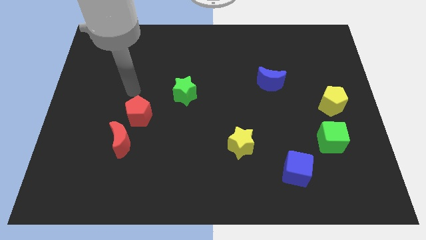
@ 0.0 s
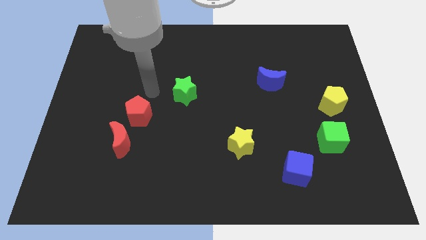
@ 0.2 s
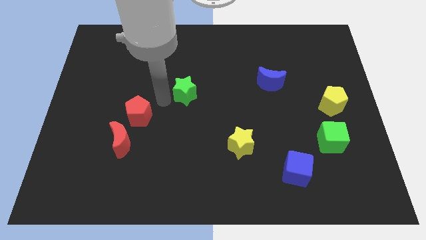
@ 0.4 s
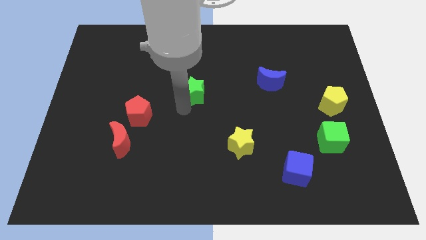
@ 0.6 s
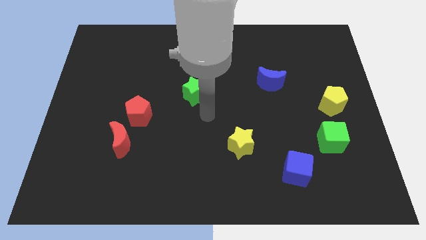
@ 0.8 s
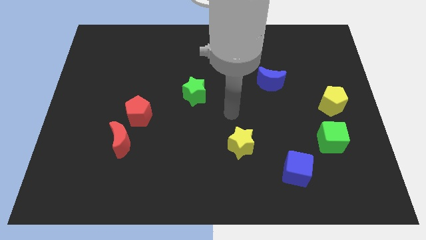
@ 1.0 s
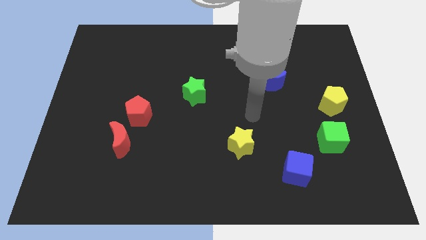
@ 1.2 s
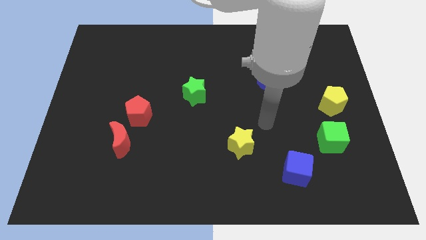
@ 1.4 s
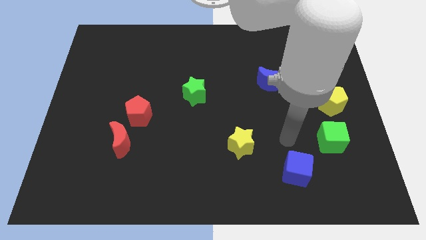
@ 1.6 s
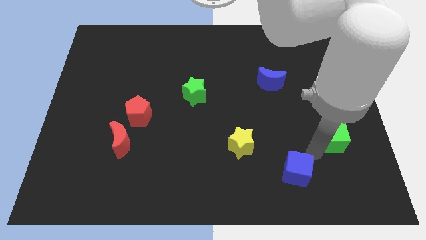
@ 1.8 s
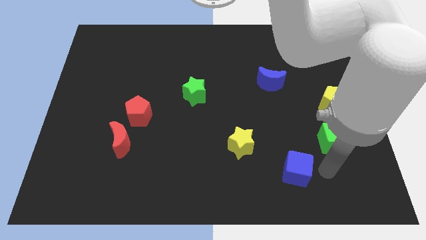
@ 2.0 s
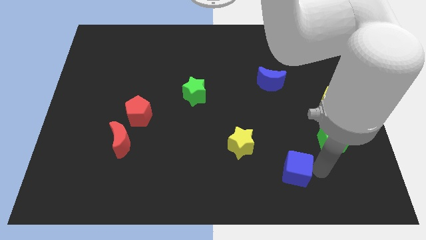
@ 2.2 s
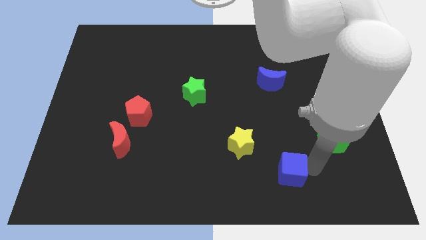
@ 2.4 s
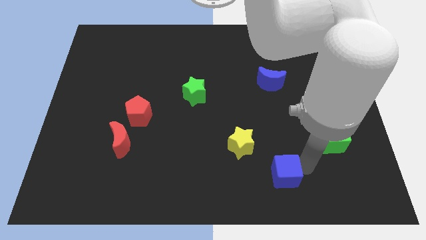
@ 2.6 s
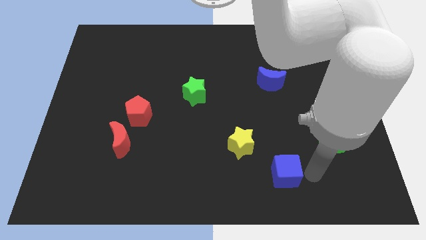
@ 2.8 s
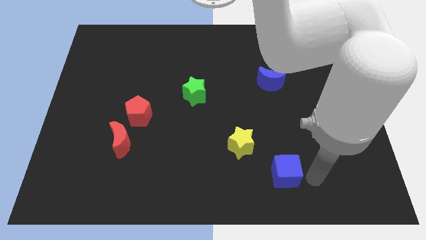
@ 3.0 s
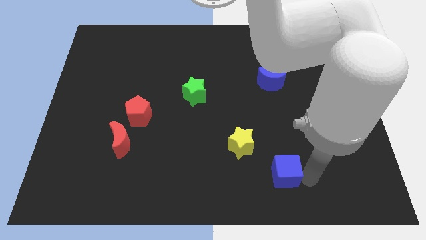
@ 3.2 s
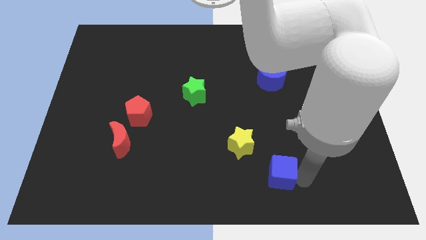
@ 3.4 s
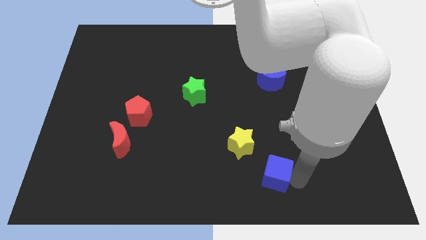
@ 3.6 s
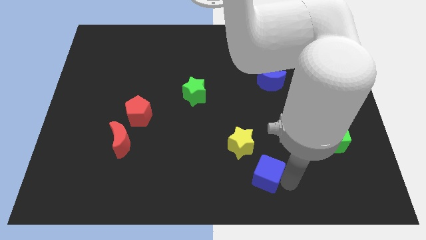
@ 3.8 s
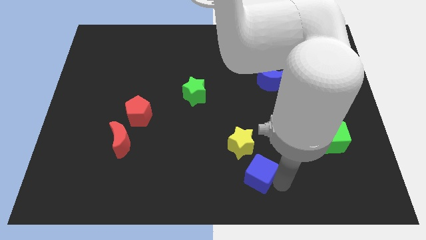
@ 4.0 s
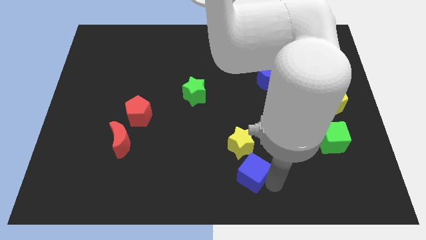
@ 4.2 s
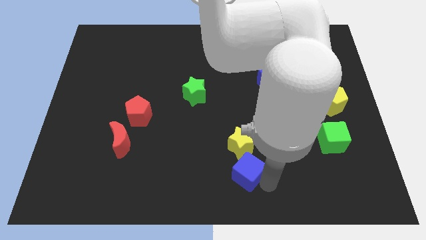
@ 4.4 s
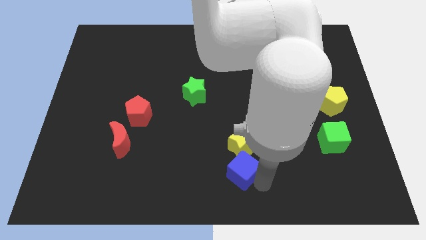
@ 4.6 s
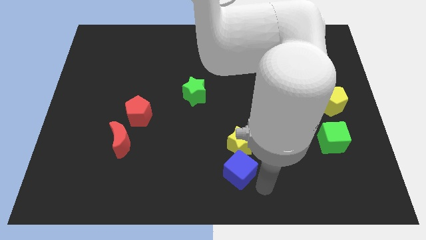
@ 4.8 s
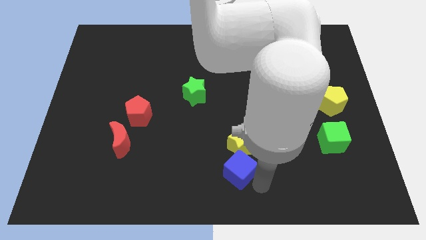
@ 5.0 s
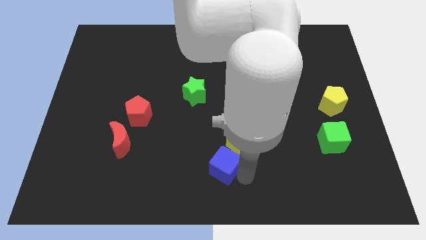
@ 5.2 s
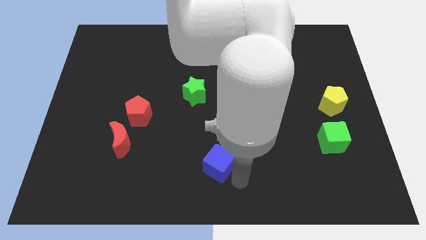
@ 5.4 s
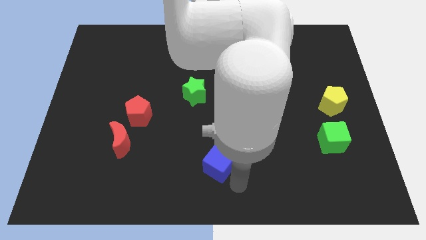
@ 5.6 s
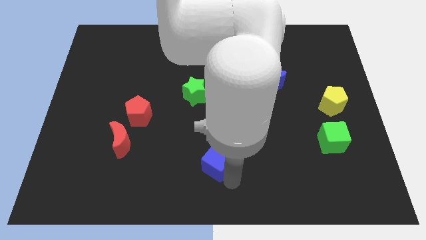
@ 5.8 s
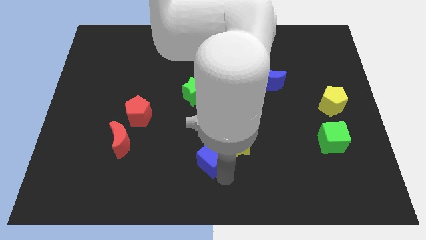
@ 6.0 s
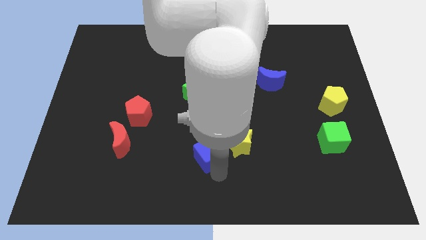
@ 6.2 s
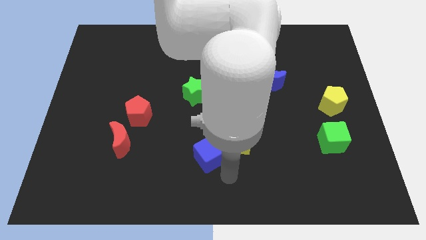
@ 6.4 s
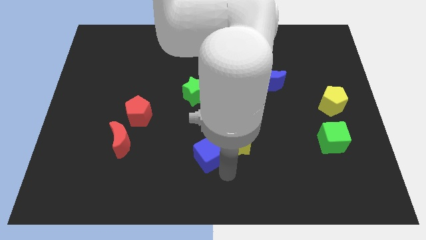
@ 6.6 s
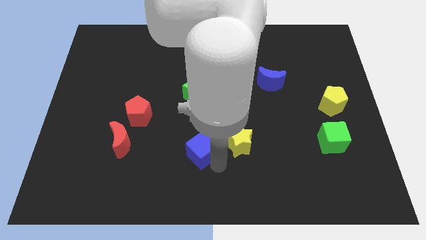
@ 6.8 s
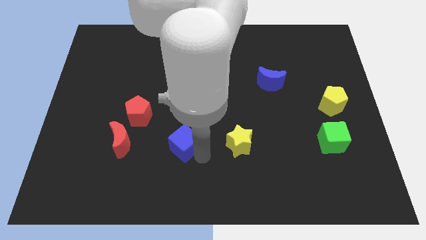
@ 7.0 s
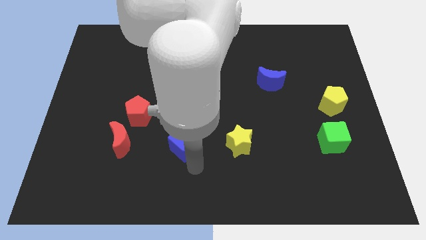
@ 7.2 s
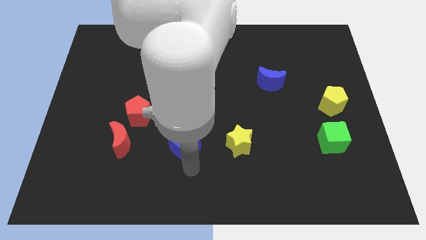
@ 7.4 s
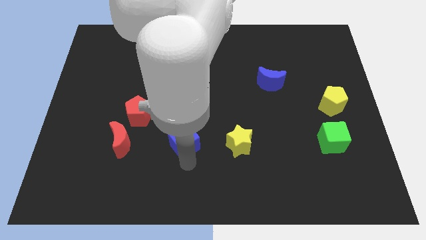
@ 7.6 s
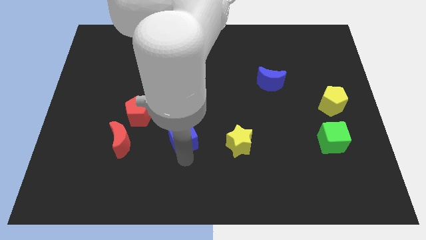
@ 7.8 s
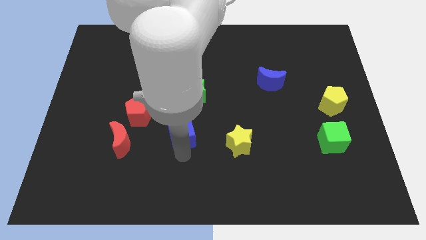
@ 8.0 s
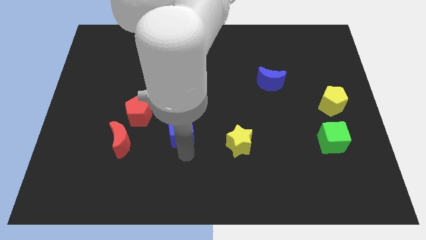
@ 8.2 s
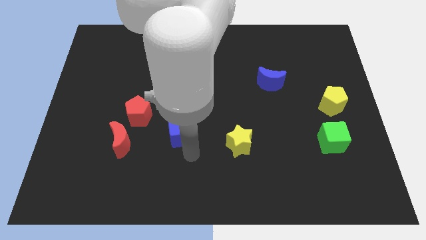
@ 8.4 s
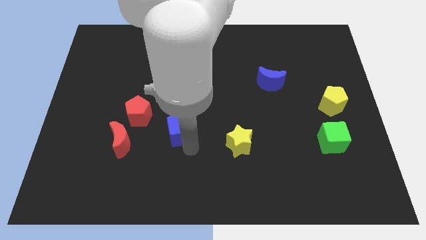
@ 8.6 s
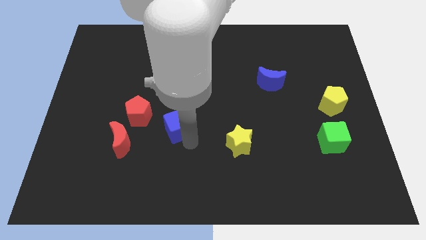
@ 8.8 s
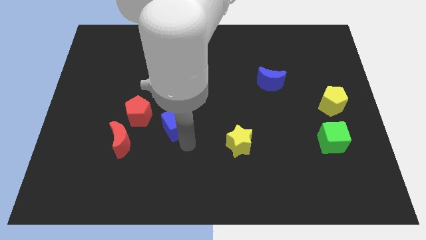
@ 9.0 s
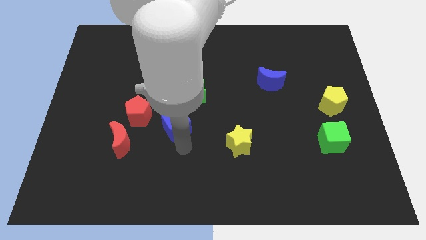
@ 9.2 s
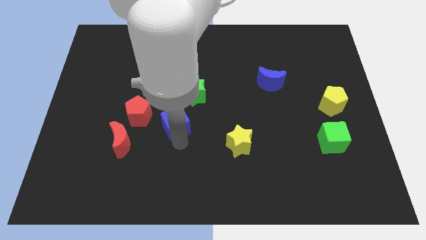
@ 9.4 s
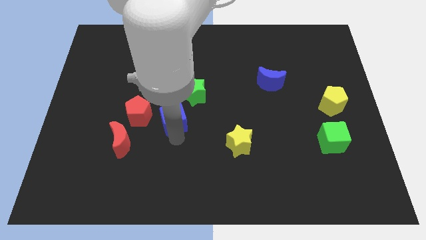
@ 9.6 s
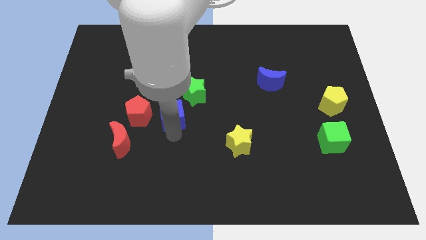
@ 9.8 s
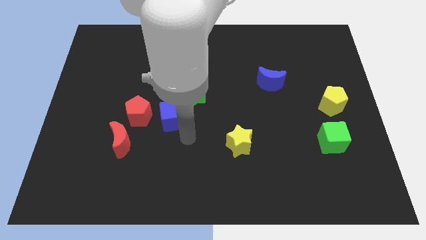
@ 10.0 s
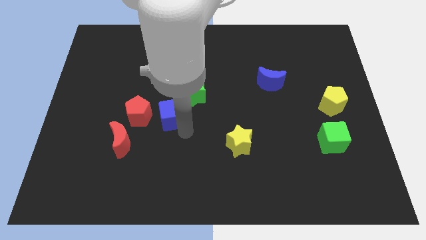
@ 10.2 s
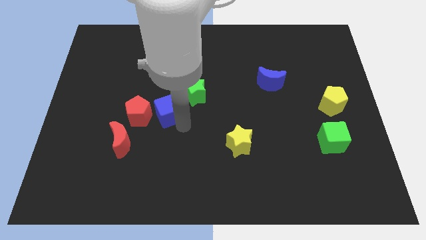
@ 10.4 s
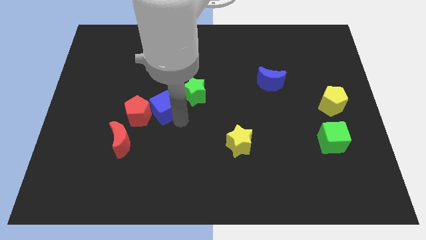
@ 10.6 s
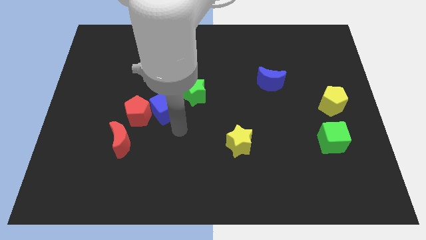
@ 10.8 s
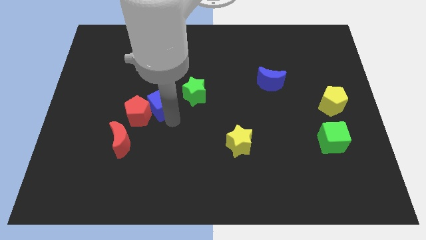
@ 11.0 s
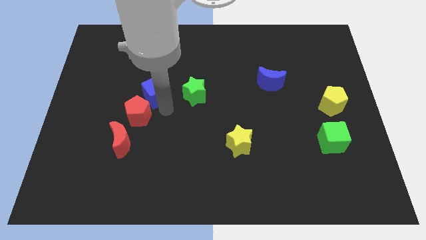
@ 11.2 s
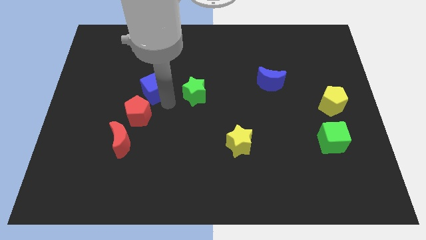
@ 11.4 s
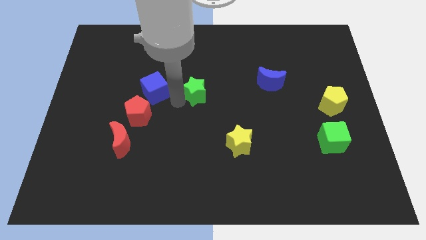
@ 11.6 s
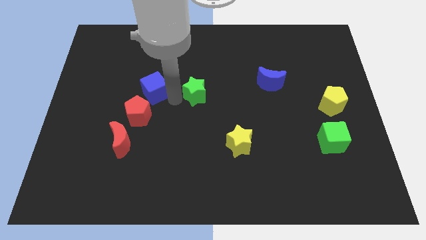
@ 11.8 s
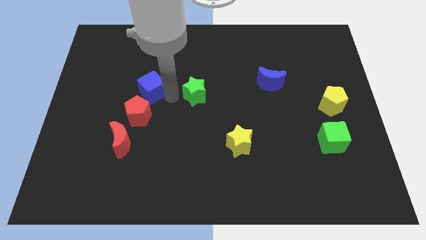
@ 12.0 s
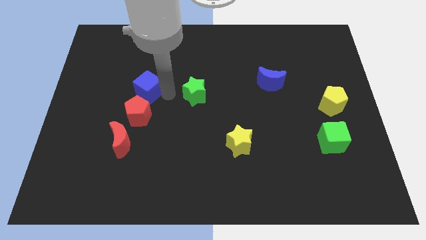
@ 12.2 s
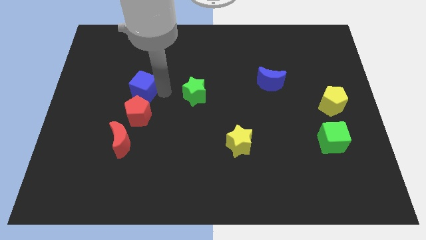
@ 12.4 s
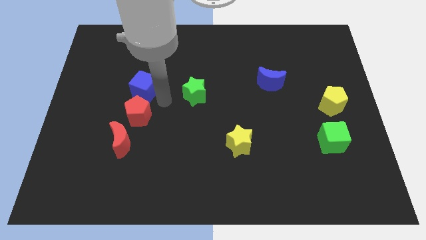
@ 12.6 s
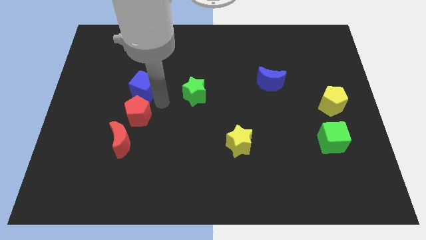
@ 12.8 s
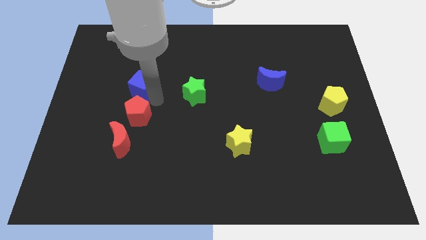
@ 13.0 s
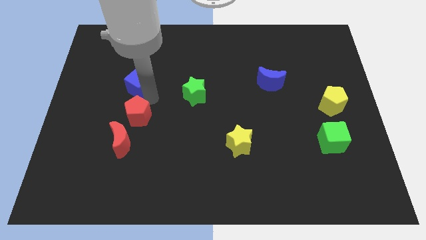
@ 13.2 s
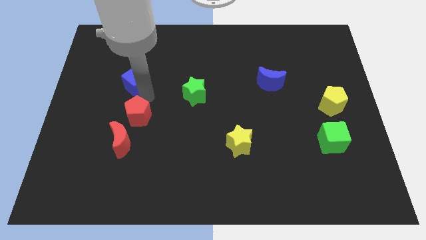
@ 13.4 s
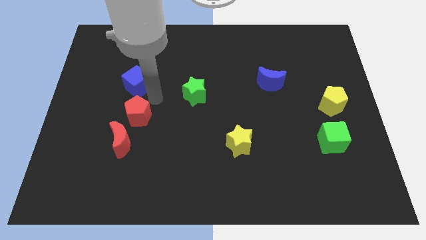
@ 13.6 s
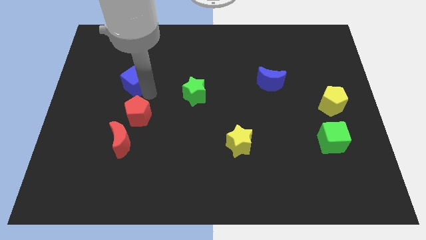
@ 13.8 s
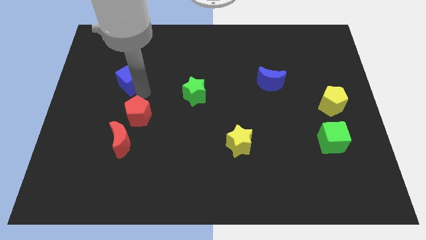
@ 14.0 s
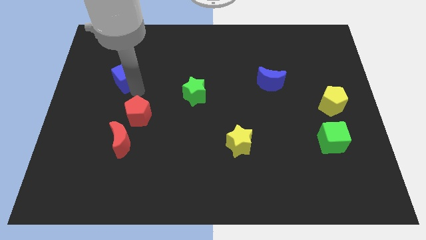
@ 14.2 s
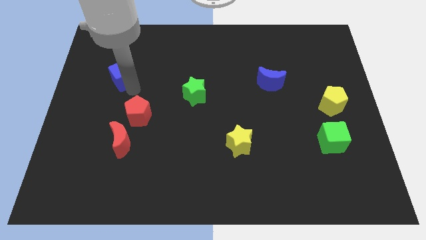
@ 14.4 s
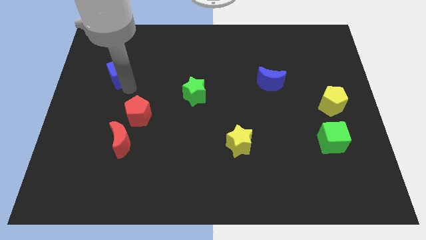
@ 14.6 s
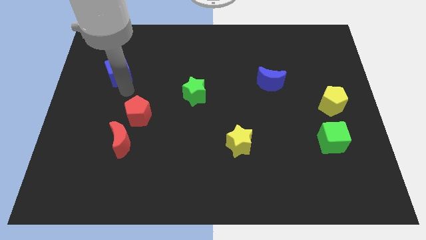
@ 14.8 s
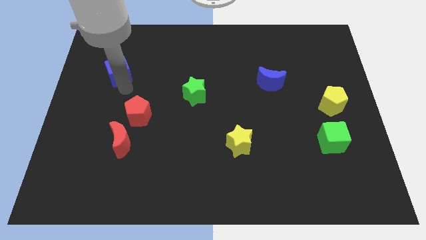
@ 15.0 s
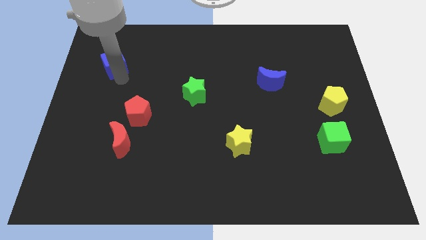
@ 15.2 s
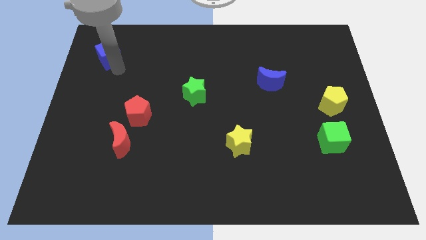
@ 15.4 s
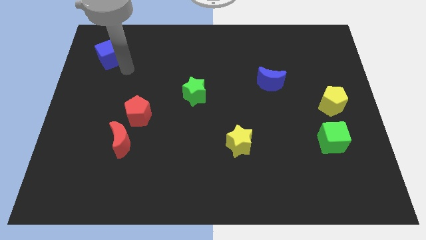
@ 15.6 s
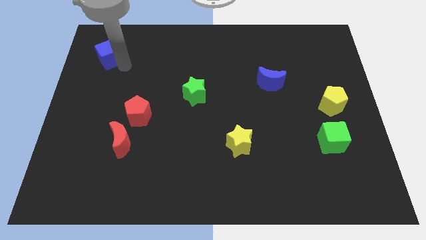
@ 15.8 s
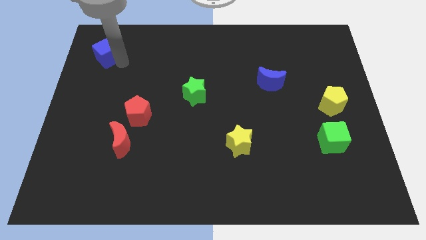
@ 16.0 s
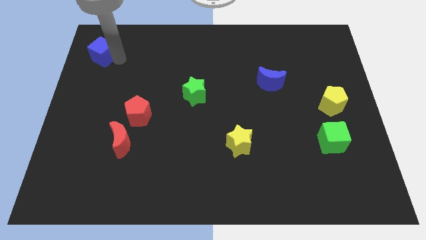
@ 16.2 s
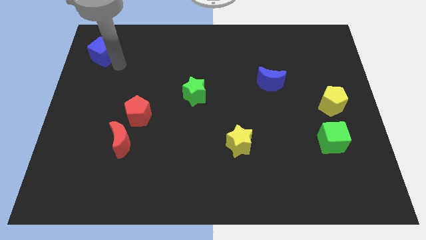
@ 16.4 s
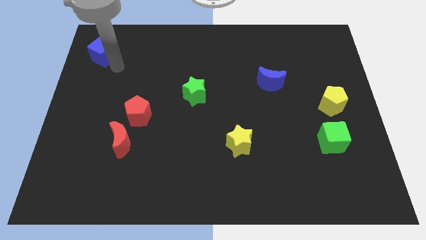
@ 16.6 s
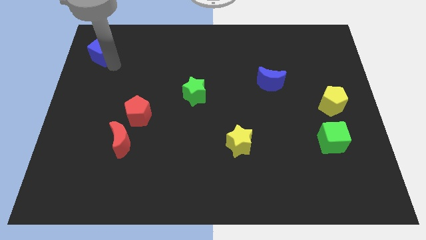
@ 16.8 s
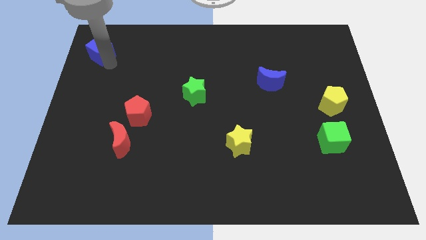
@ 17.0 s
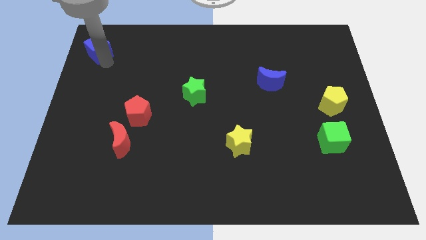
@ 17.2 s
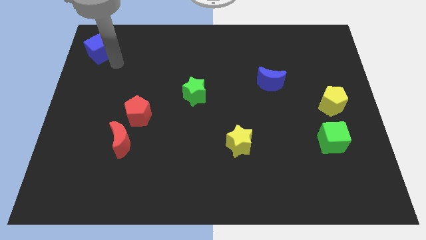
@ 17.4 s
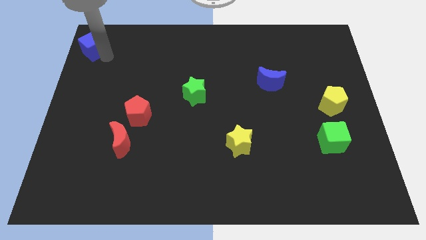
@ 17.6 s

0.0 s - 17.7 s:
push the blue cube to the top left corner
